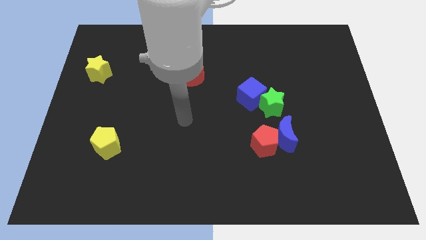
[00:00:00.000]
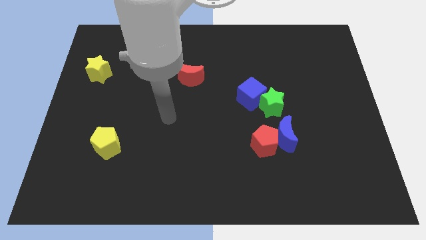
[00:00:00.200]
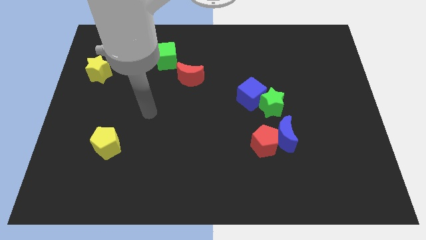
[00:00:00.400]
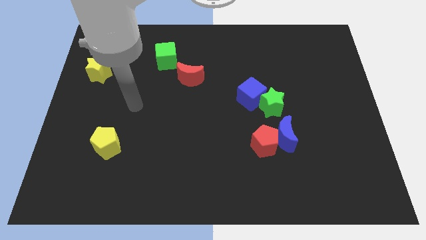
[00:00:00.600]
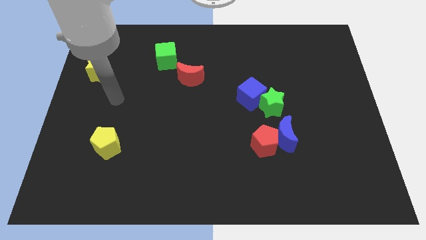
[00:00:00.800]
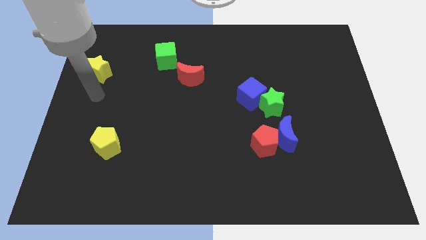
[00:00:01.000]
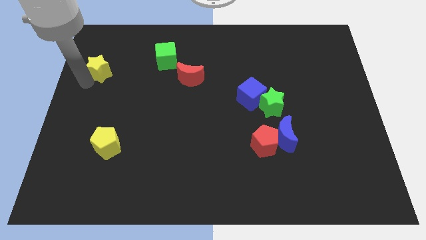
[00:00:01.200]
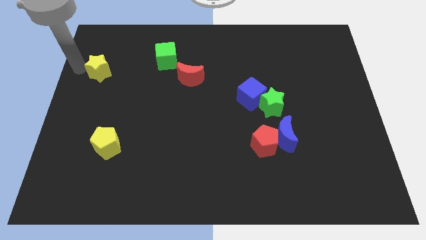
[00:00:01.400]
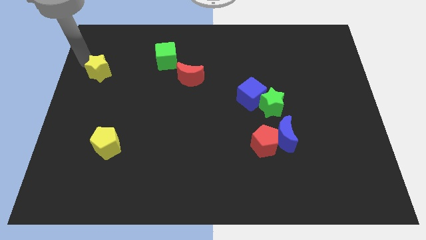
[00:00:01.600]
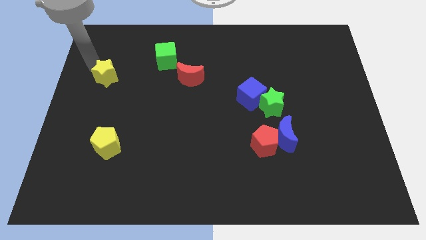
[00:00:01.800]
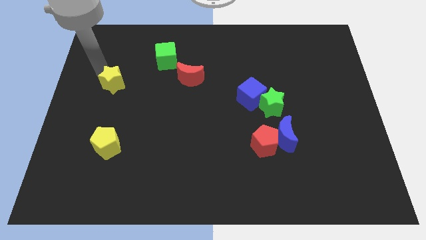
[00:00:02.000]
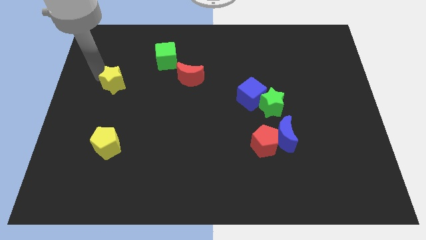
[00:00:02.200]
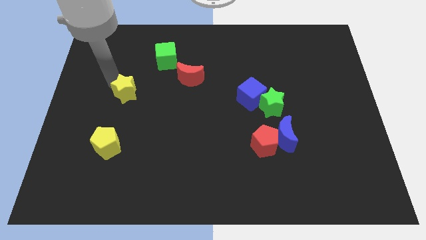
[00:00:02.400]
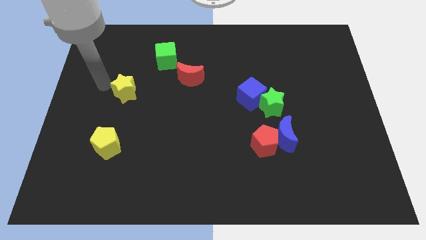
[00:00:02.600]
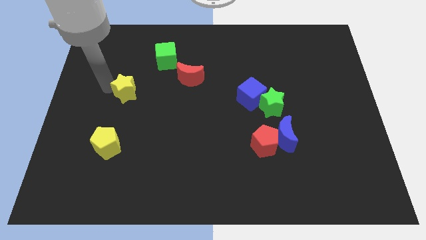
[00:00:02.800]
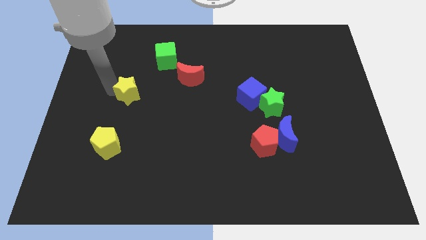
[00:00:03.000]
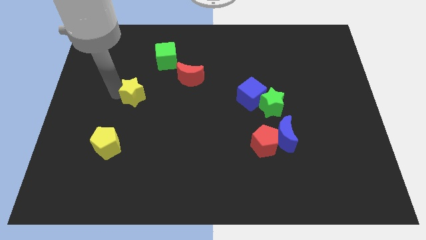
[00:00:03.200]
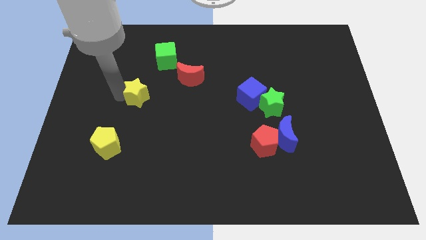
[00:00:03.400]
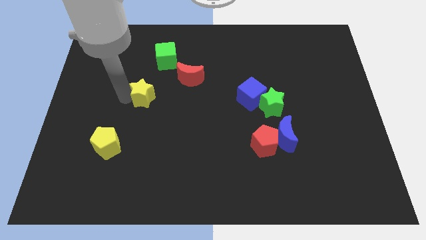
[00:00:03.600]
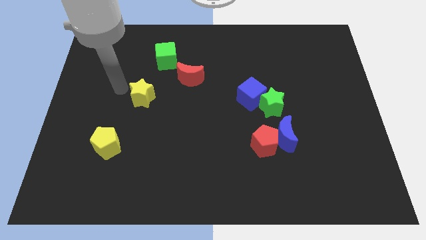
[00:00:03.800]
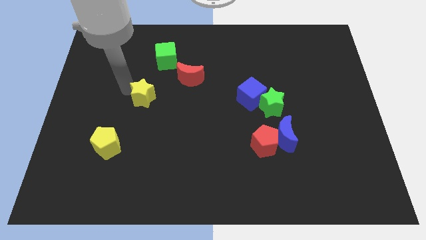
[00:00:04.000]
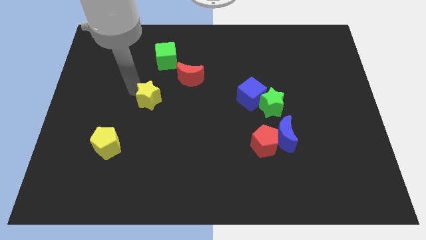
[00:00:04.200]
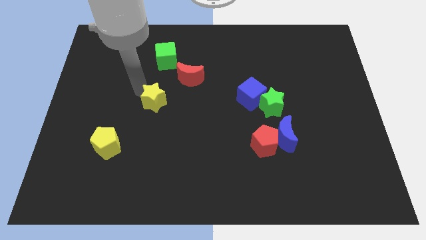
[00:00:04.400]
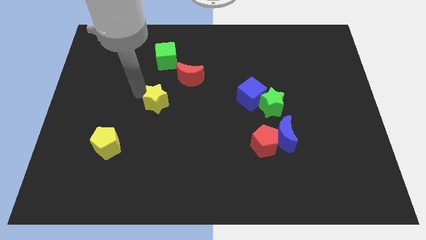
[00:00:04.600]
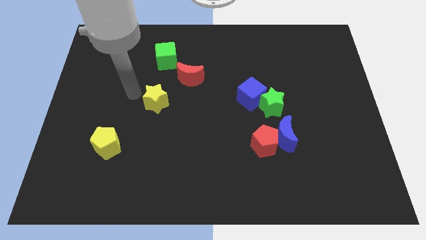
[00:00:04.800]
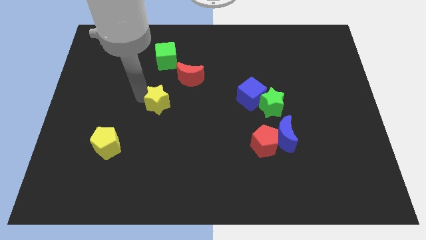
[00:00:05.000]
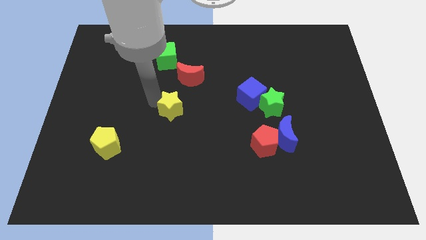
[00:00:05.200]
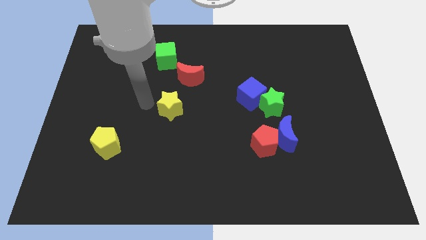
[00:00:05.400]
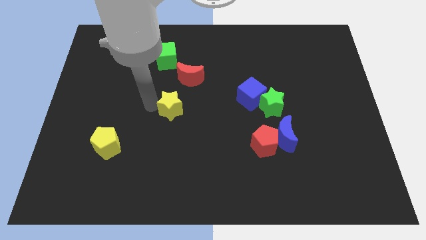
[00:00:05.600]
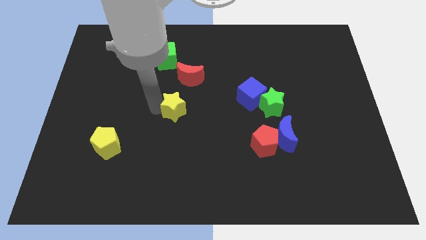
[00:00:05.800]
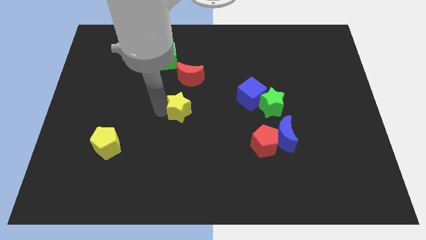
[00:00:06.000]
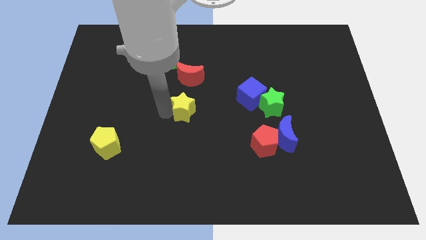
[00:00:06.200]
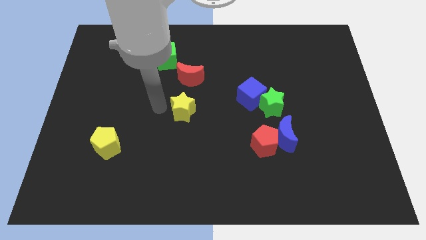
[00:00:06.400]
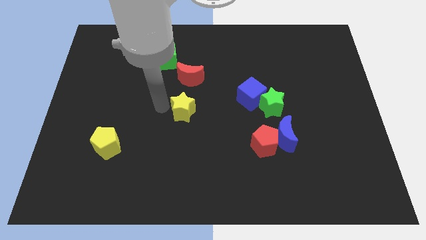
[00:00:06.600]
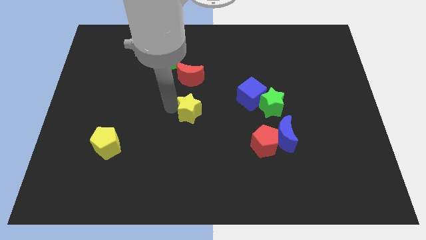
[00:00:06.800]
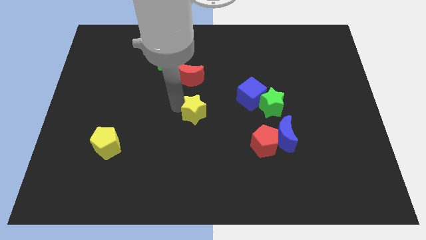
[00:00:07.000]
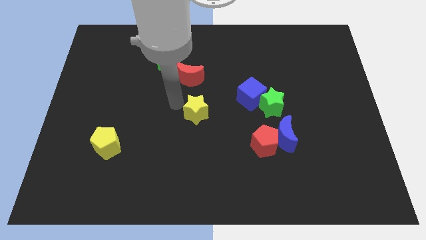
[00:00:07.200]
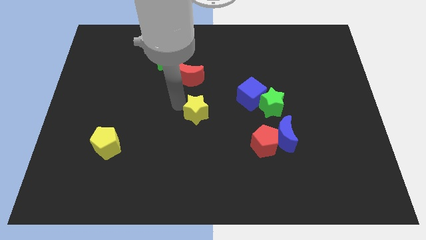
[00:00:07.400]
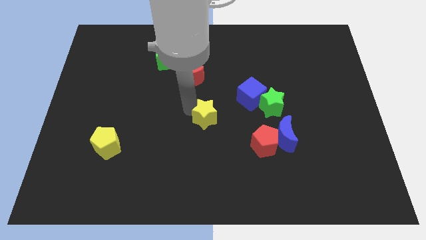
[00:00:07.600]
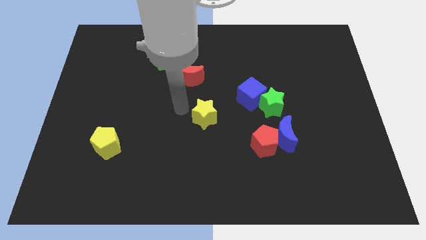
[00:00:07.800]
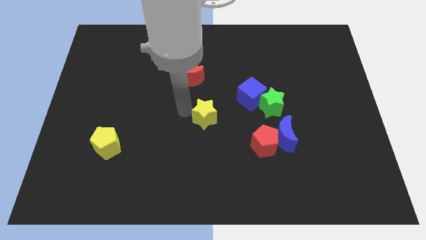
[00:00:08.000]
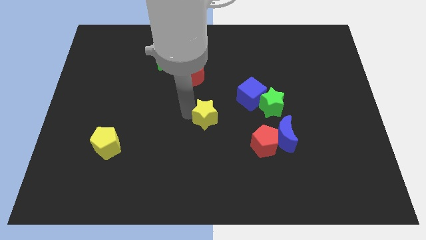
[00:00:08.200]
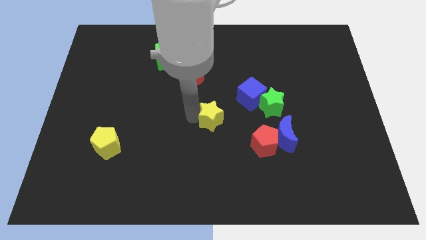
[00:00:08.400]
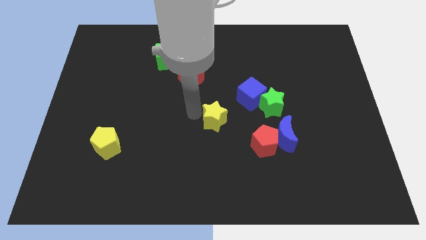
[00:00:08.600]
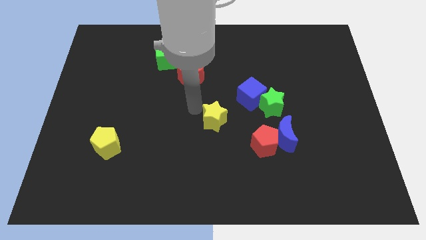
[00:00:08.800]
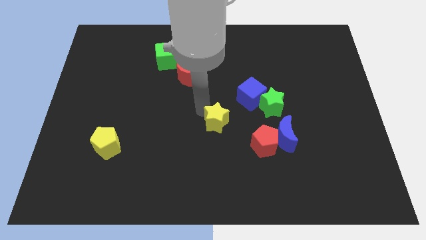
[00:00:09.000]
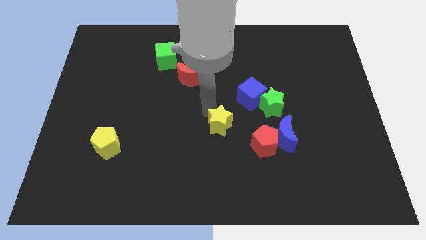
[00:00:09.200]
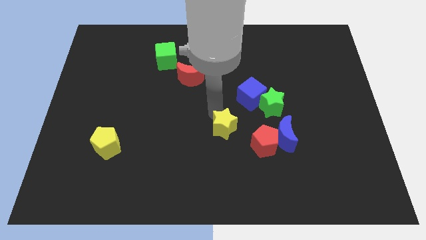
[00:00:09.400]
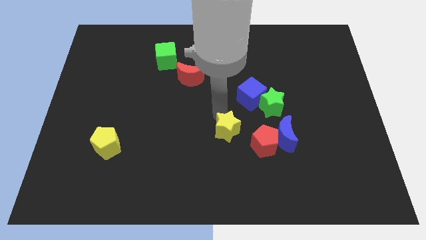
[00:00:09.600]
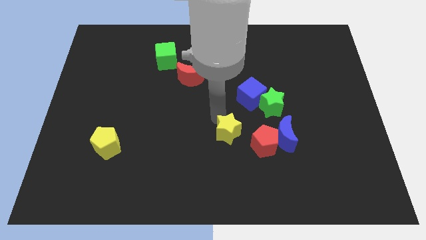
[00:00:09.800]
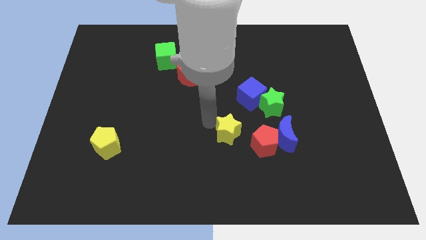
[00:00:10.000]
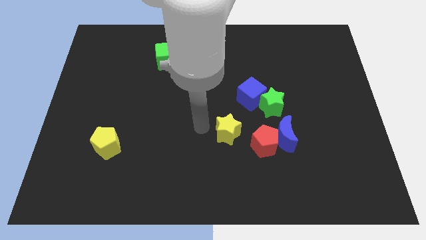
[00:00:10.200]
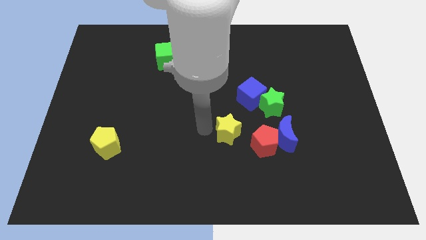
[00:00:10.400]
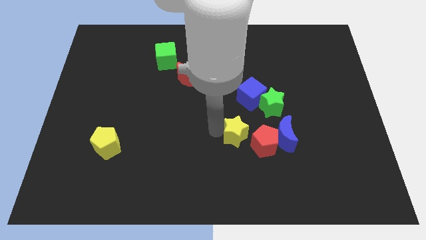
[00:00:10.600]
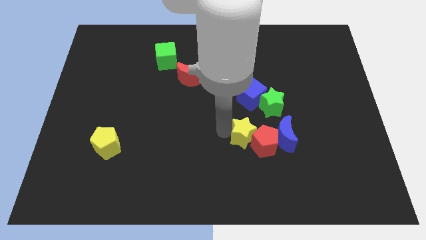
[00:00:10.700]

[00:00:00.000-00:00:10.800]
slide the yellow star towards the red pentagon

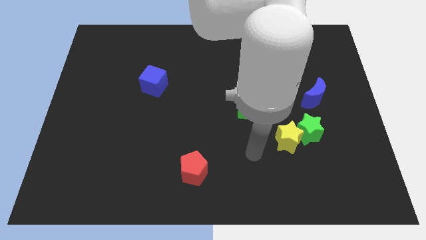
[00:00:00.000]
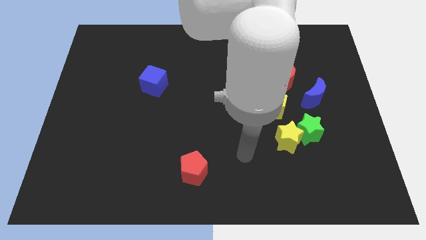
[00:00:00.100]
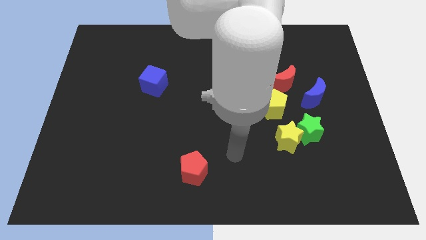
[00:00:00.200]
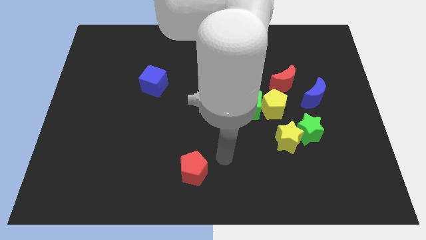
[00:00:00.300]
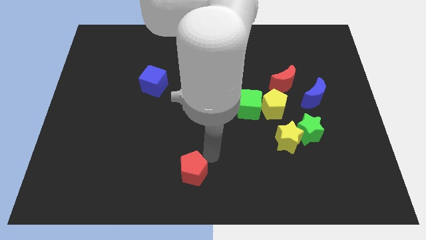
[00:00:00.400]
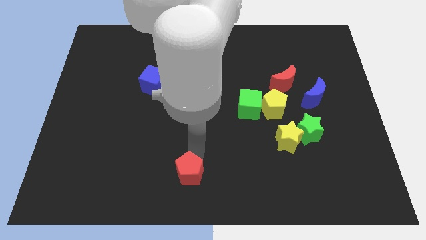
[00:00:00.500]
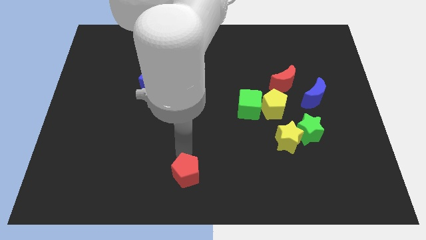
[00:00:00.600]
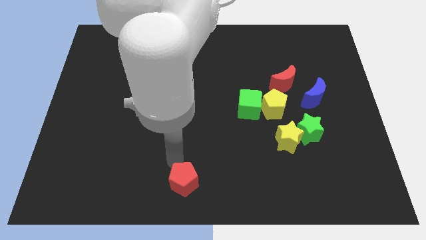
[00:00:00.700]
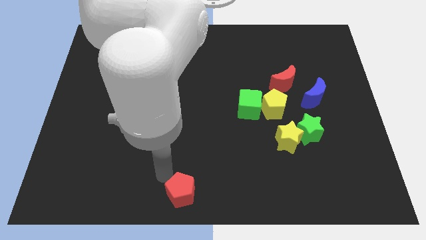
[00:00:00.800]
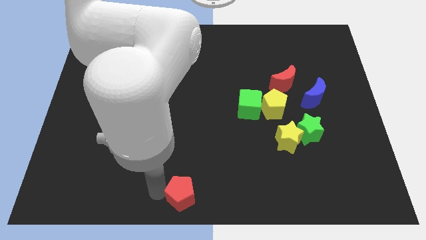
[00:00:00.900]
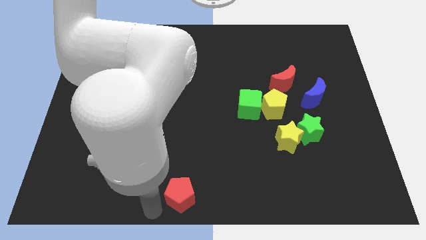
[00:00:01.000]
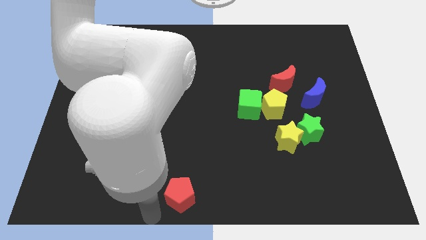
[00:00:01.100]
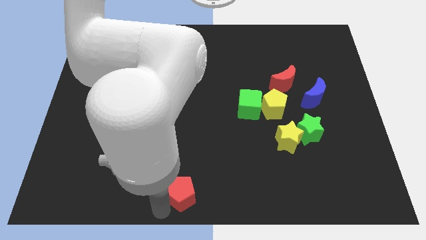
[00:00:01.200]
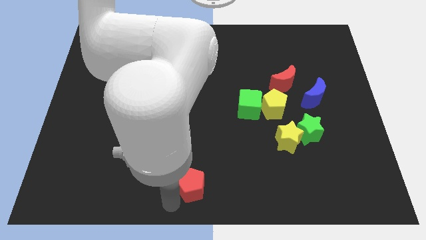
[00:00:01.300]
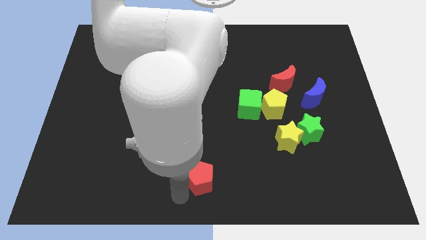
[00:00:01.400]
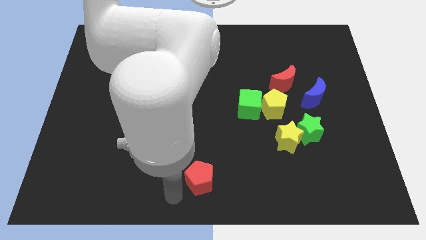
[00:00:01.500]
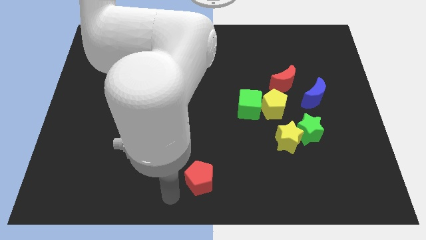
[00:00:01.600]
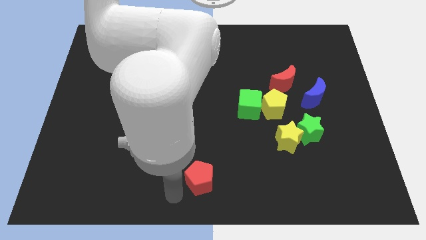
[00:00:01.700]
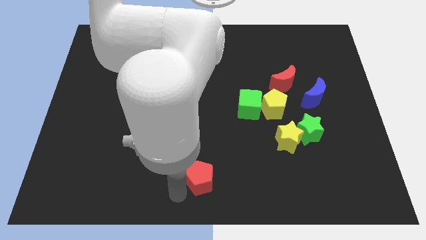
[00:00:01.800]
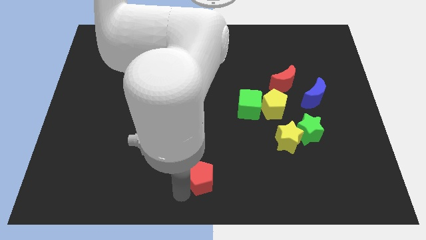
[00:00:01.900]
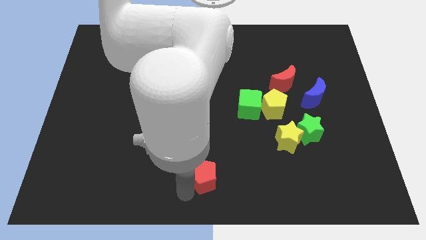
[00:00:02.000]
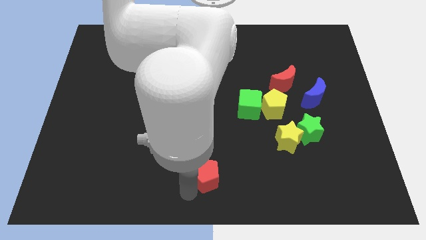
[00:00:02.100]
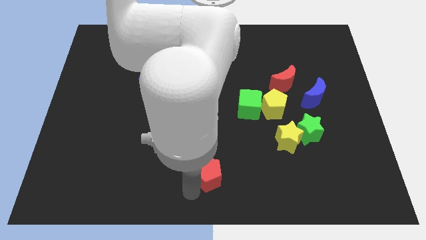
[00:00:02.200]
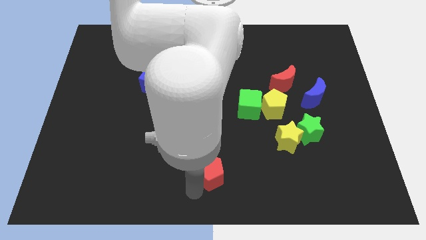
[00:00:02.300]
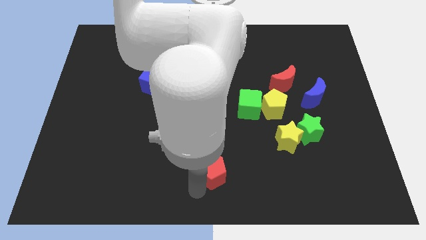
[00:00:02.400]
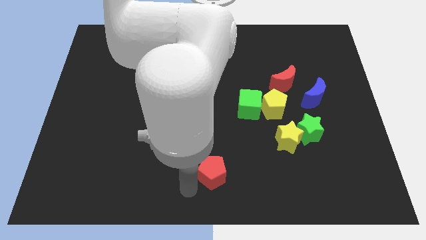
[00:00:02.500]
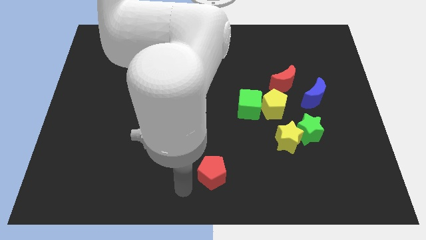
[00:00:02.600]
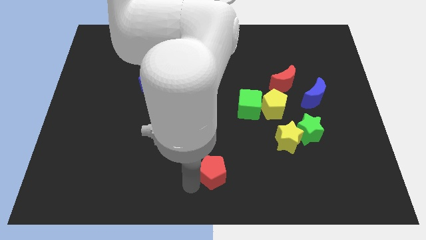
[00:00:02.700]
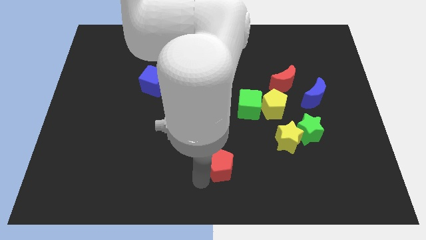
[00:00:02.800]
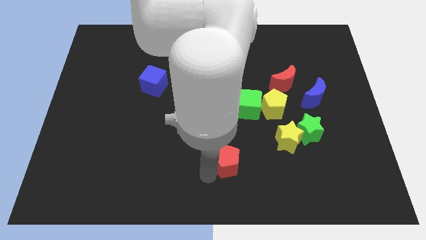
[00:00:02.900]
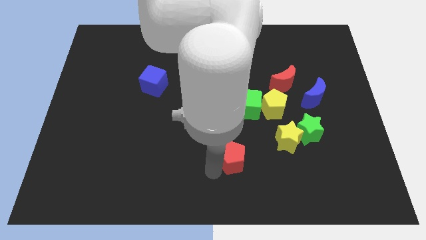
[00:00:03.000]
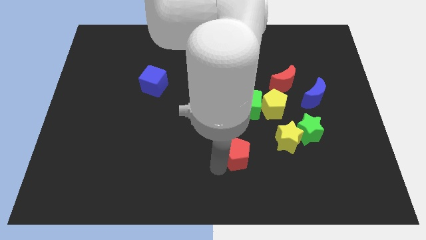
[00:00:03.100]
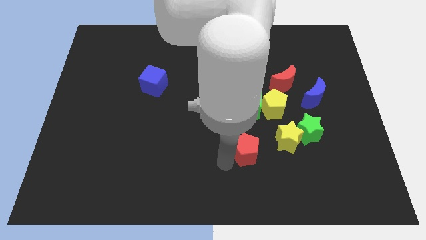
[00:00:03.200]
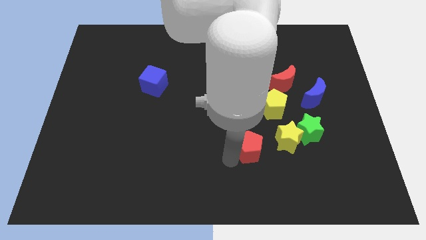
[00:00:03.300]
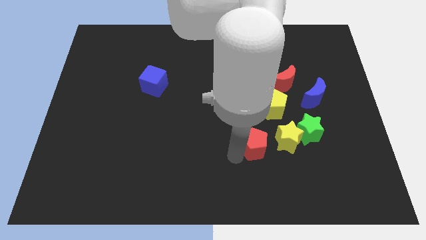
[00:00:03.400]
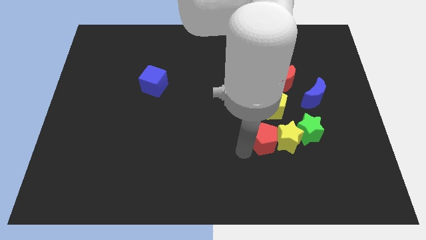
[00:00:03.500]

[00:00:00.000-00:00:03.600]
put the red pentagon close to the yellow star
